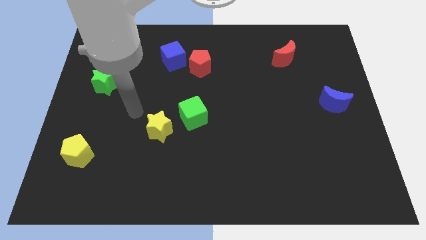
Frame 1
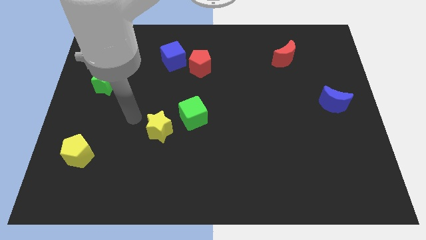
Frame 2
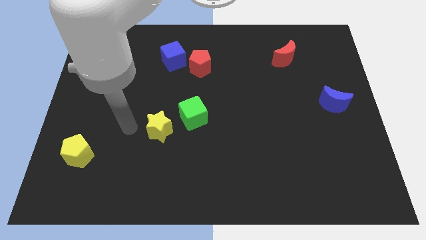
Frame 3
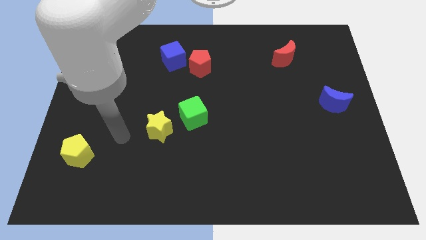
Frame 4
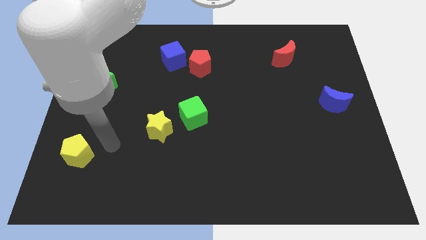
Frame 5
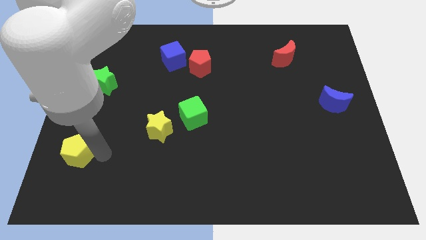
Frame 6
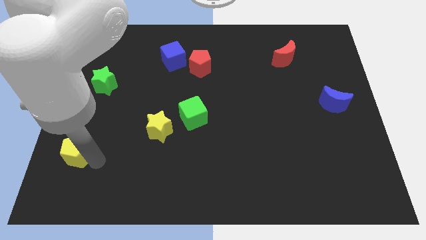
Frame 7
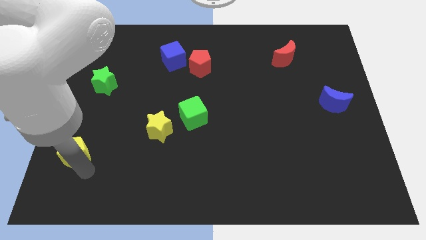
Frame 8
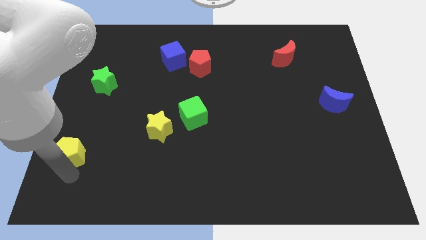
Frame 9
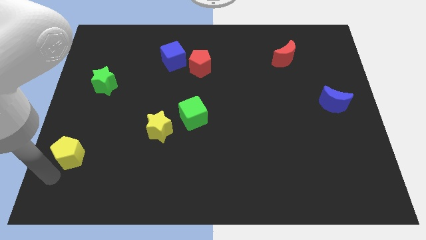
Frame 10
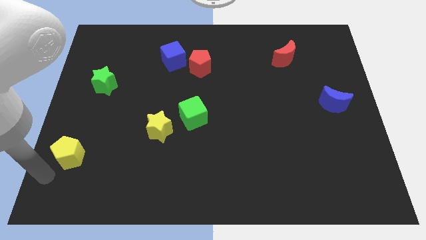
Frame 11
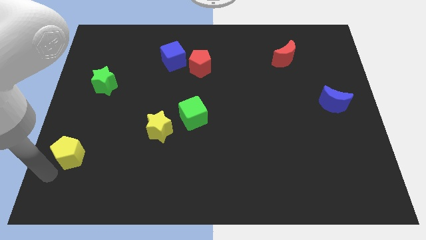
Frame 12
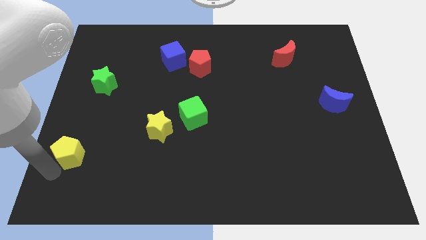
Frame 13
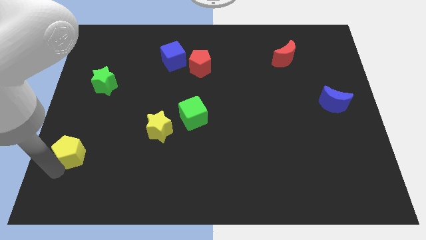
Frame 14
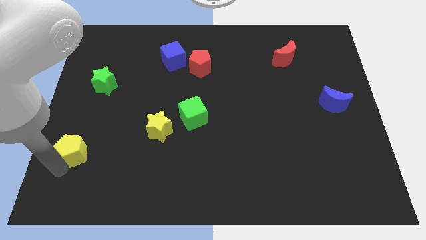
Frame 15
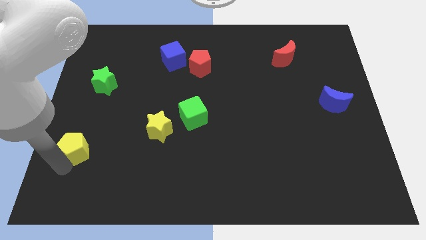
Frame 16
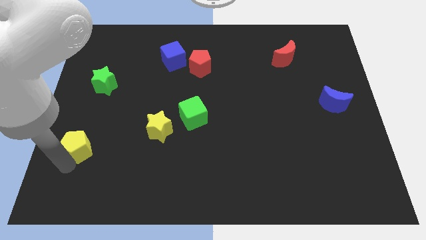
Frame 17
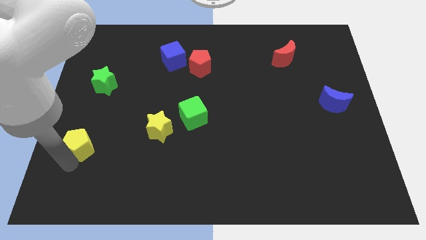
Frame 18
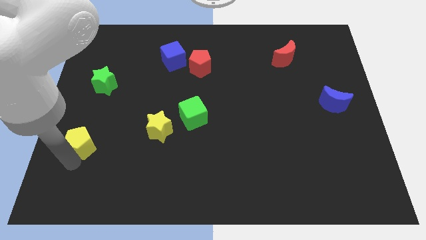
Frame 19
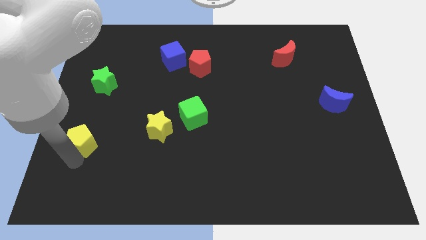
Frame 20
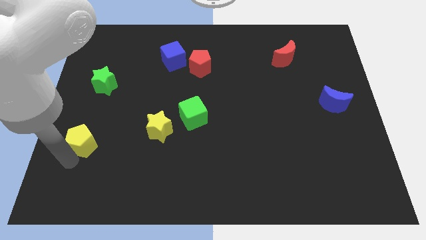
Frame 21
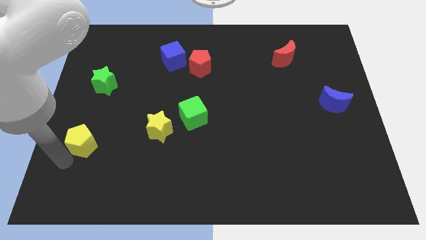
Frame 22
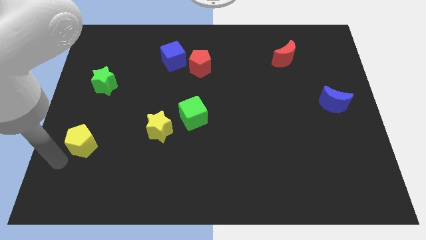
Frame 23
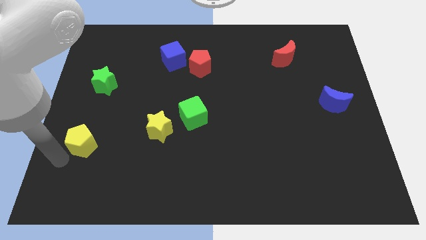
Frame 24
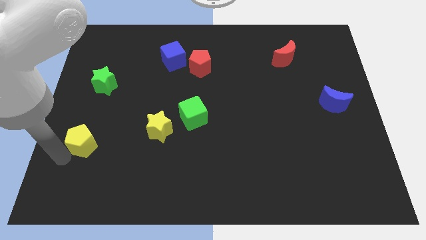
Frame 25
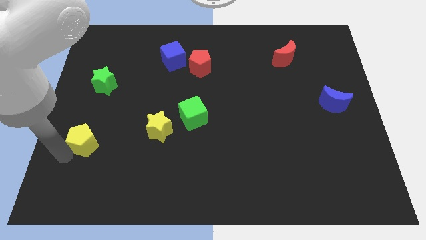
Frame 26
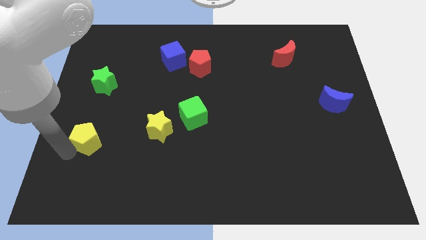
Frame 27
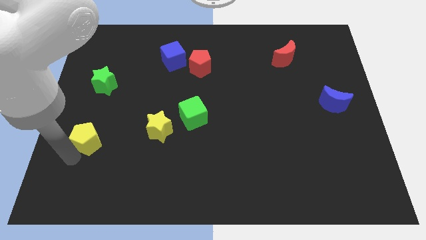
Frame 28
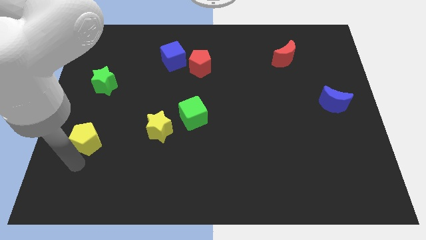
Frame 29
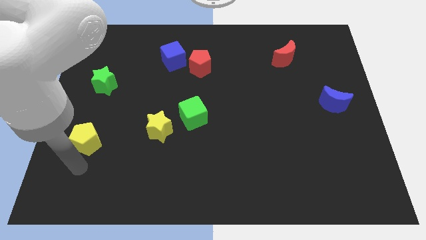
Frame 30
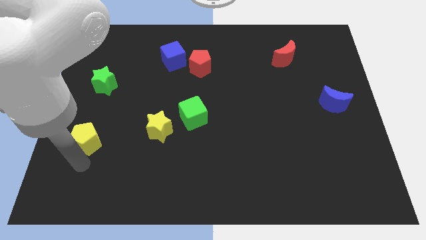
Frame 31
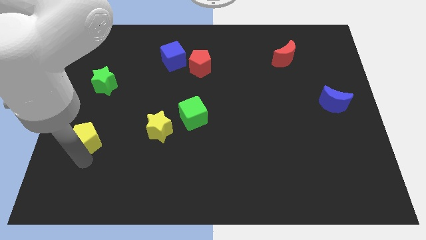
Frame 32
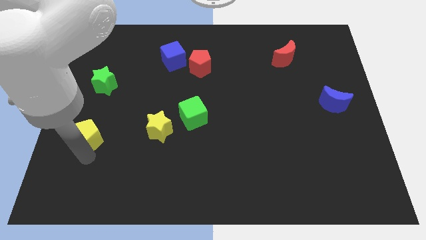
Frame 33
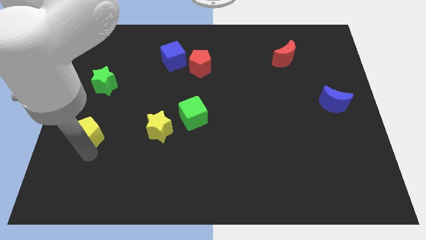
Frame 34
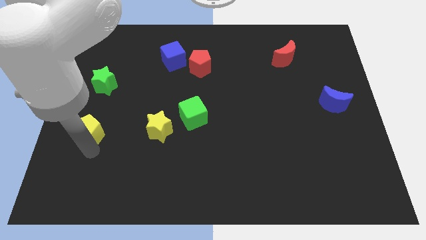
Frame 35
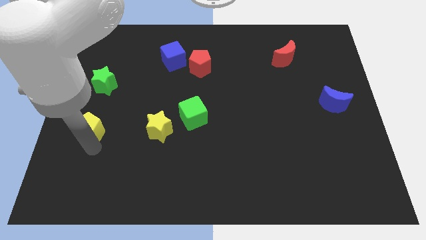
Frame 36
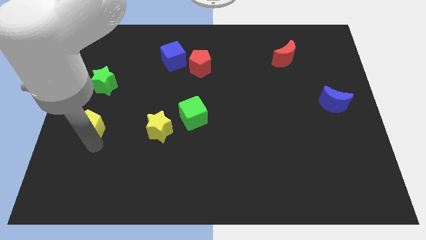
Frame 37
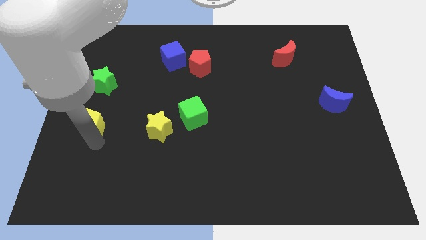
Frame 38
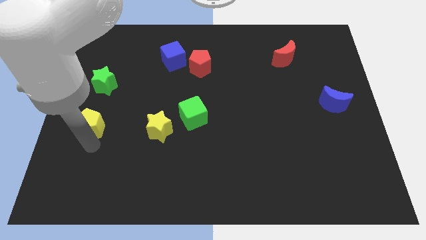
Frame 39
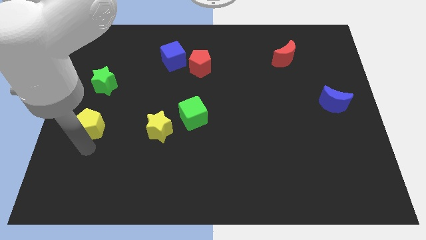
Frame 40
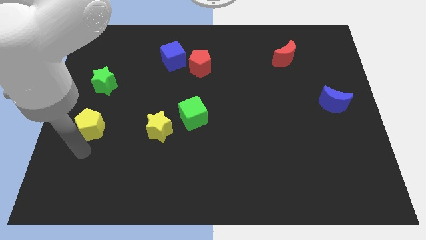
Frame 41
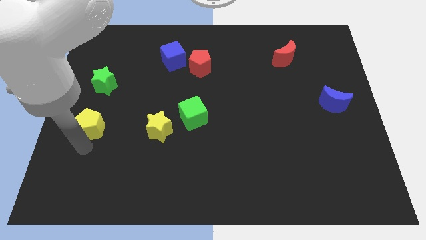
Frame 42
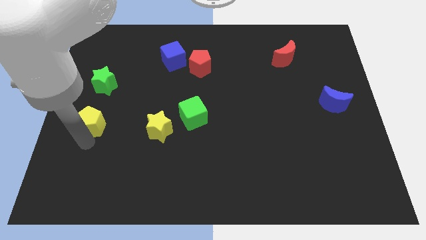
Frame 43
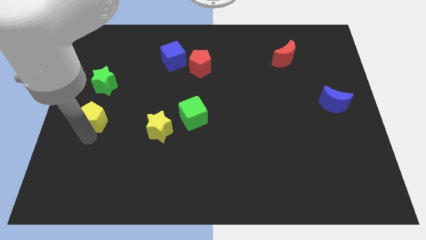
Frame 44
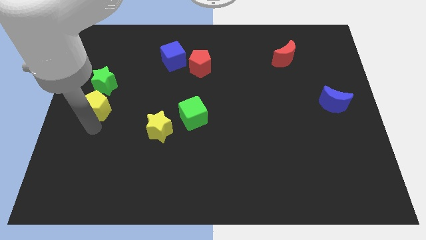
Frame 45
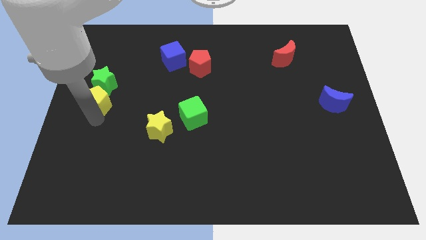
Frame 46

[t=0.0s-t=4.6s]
move the yellow pentagon towards the green star

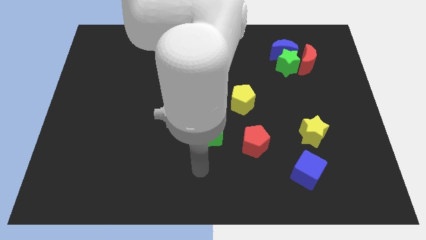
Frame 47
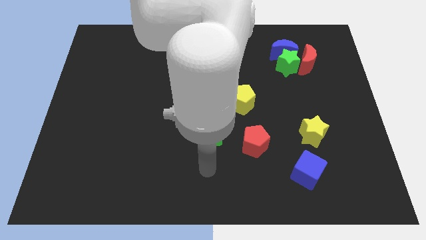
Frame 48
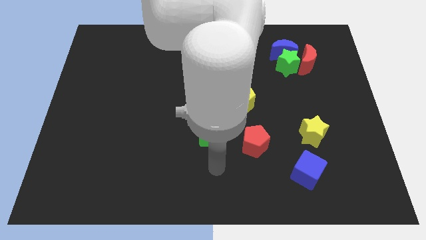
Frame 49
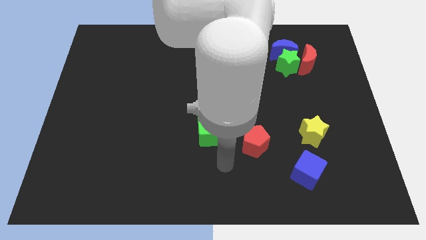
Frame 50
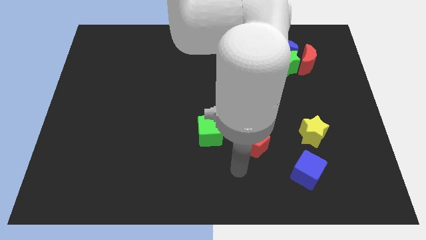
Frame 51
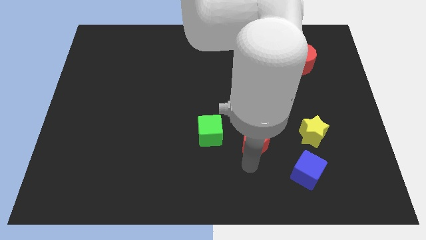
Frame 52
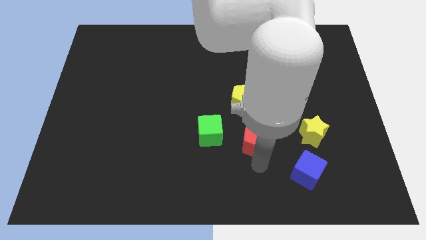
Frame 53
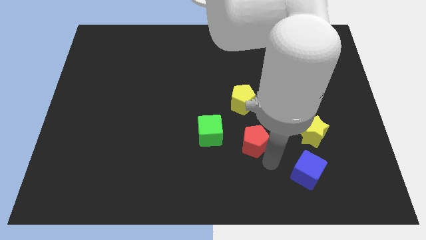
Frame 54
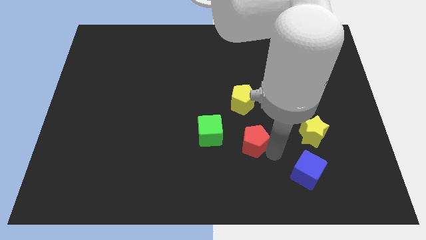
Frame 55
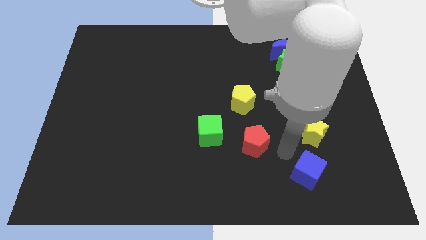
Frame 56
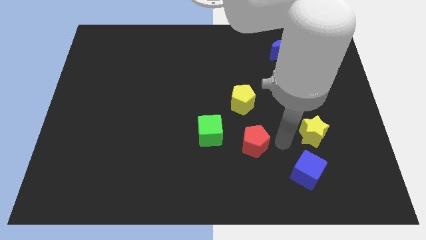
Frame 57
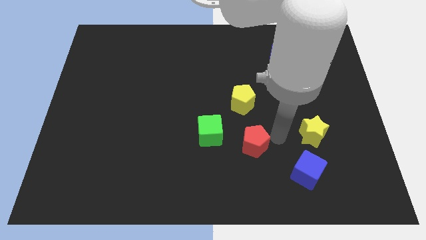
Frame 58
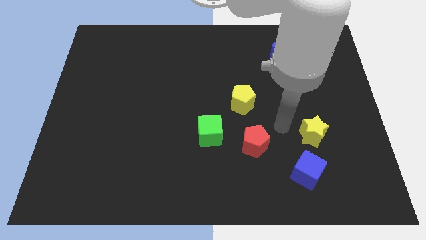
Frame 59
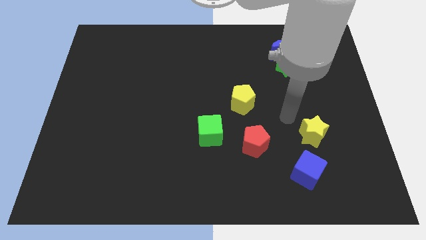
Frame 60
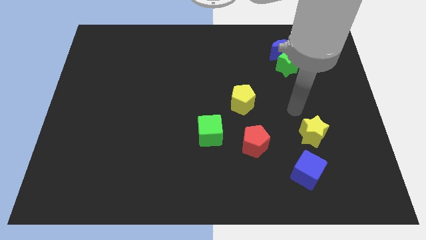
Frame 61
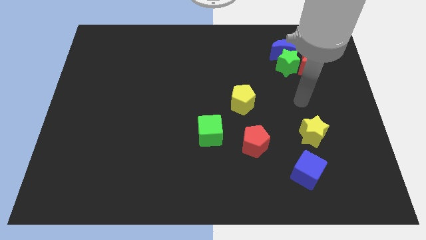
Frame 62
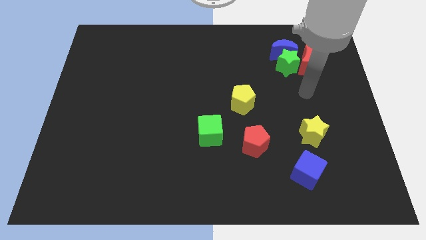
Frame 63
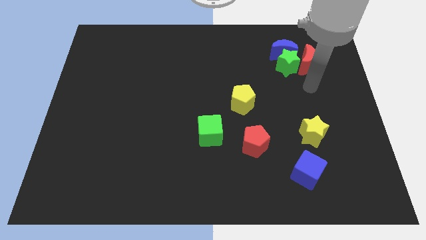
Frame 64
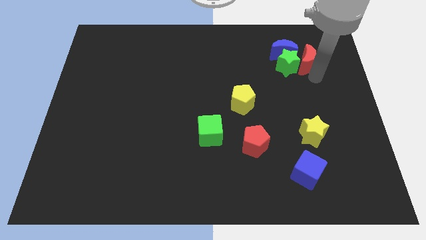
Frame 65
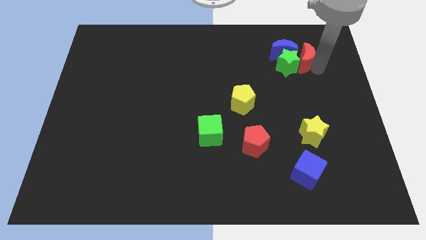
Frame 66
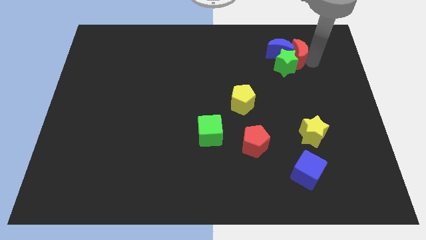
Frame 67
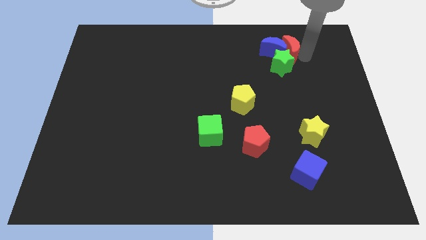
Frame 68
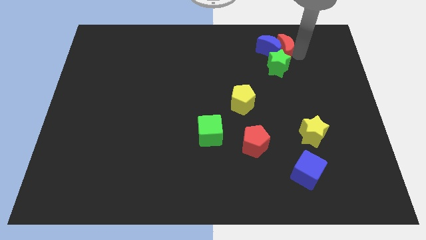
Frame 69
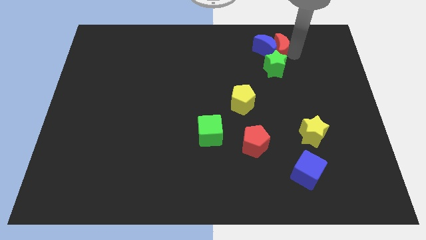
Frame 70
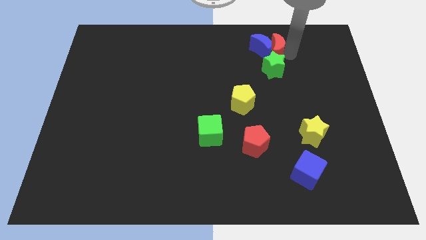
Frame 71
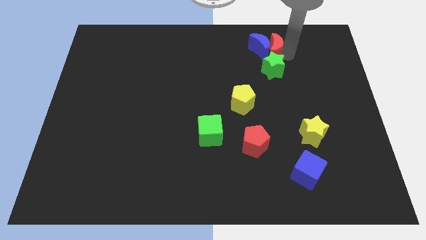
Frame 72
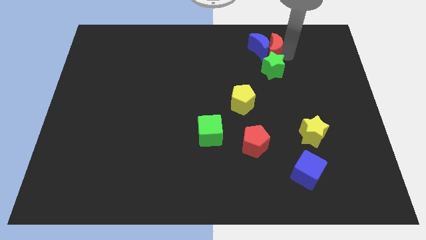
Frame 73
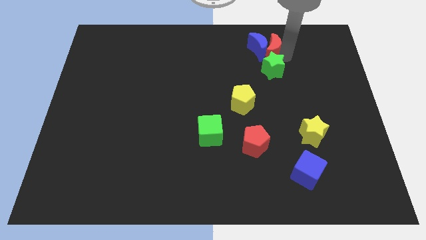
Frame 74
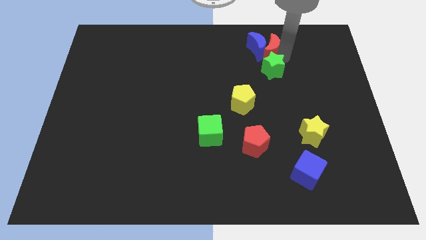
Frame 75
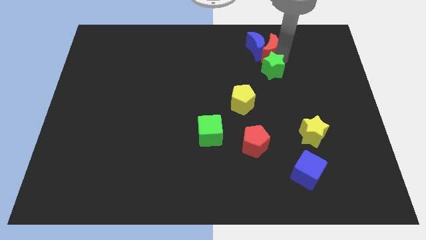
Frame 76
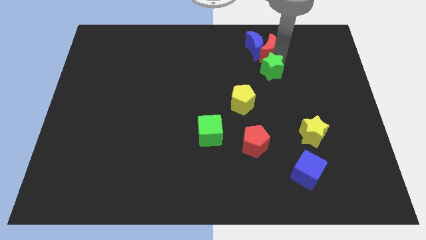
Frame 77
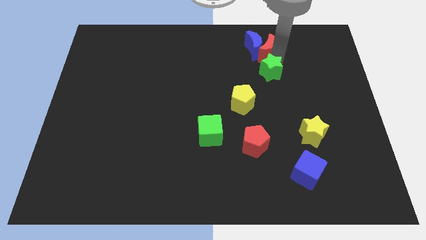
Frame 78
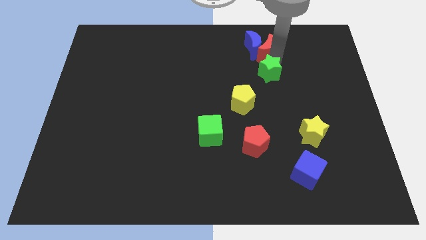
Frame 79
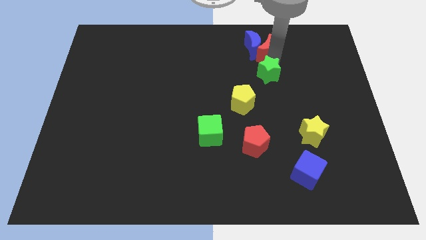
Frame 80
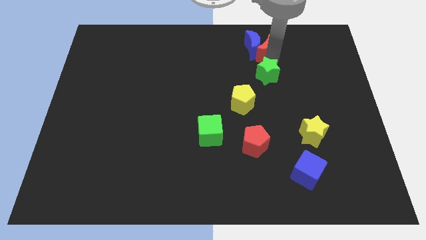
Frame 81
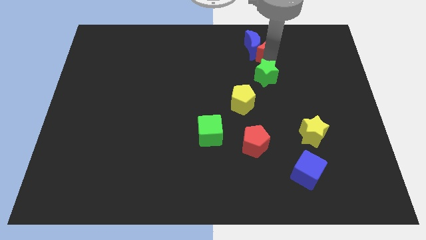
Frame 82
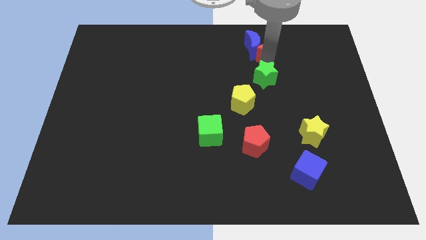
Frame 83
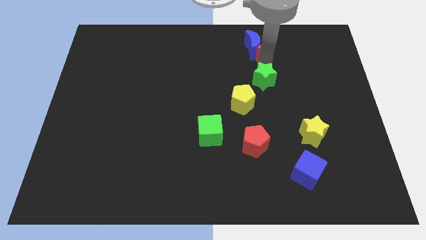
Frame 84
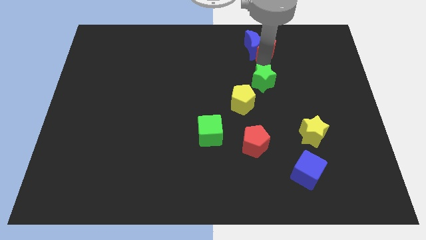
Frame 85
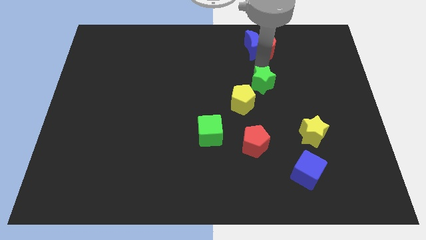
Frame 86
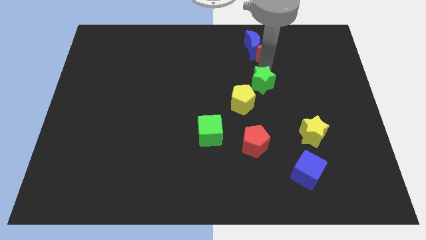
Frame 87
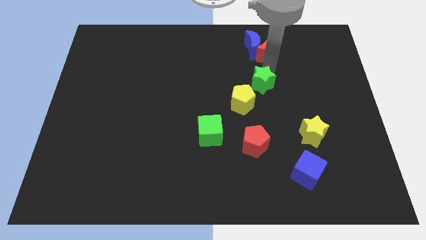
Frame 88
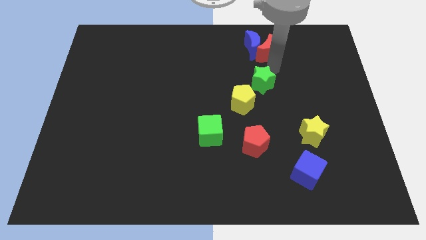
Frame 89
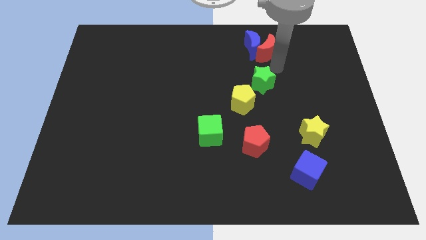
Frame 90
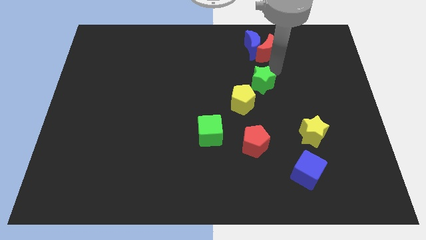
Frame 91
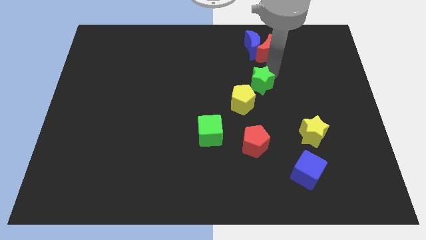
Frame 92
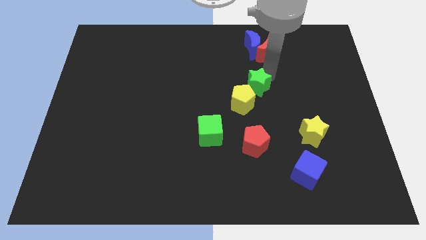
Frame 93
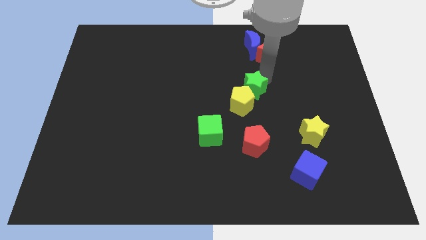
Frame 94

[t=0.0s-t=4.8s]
slide the green star next to the yellow pentagon
